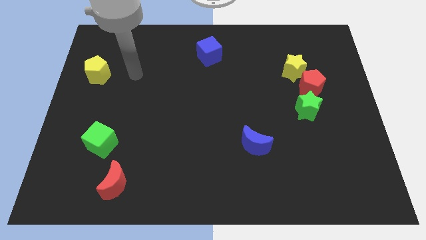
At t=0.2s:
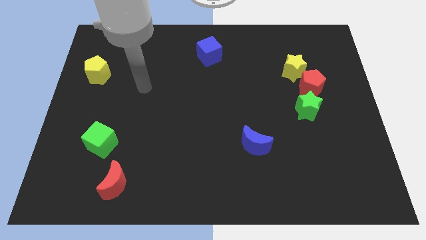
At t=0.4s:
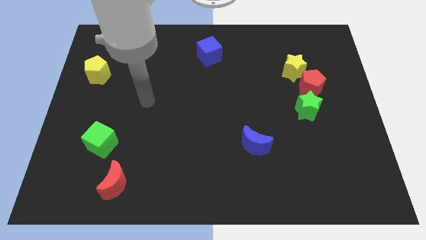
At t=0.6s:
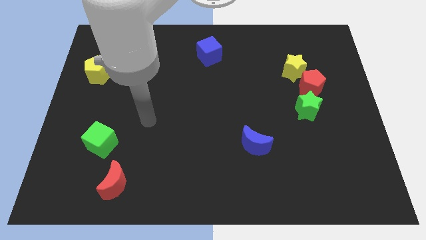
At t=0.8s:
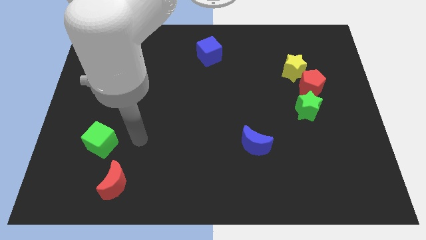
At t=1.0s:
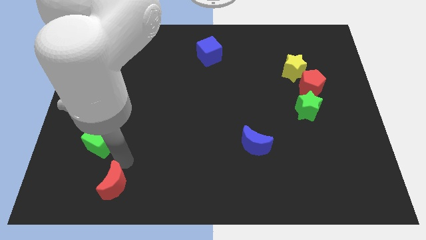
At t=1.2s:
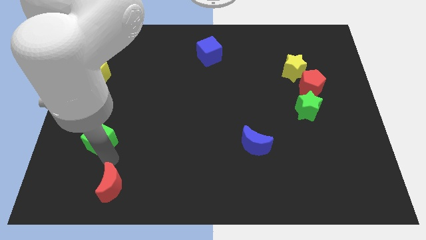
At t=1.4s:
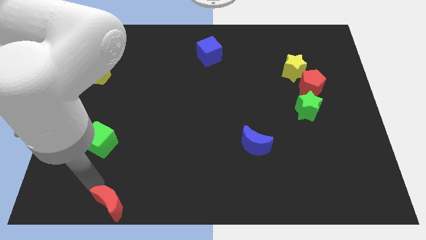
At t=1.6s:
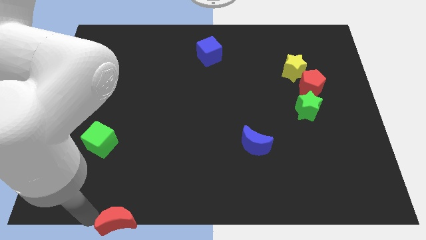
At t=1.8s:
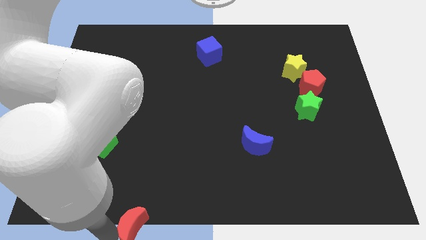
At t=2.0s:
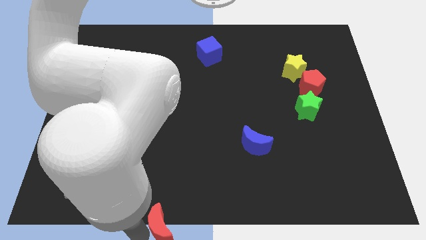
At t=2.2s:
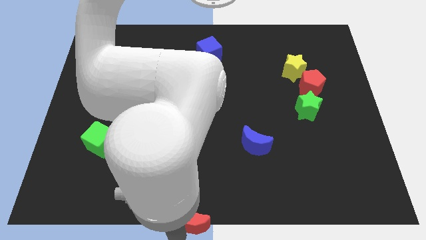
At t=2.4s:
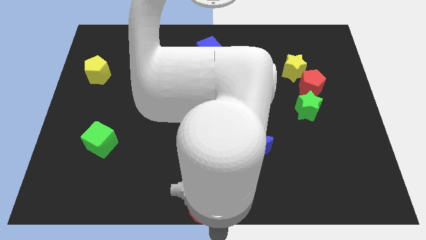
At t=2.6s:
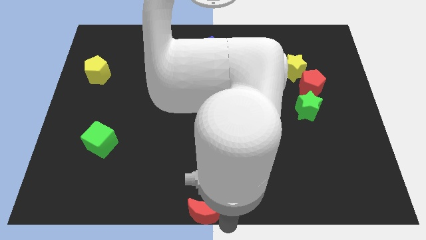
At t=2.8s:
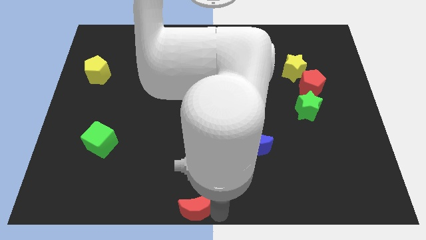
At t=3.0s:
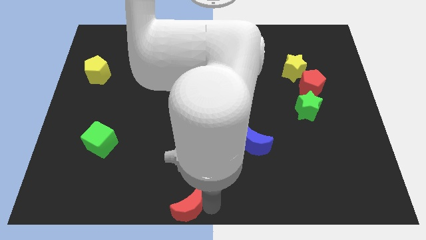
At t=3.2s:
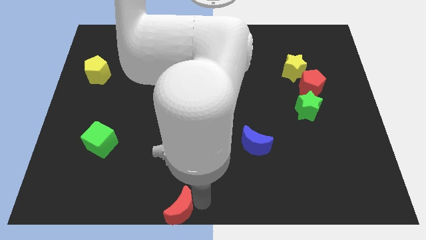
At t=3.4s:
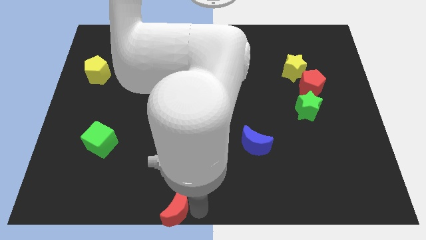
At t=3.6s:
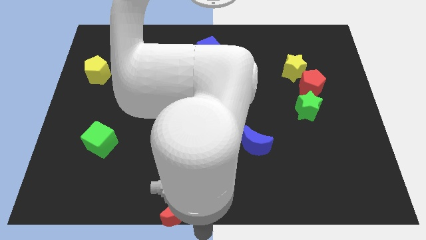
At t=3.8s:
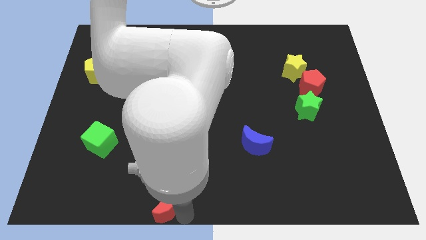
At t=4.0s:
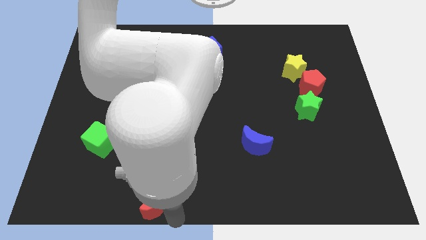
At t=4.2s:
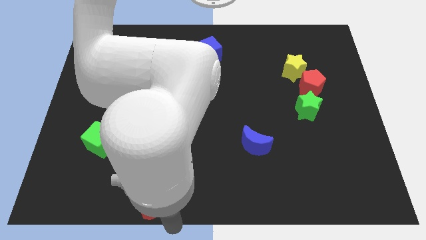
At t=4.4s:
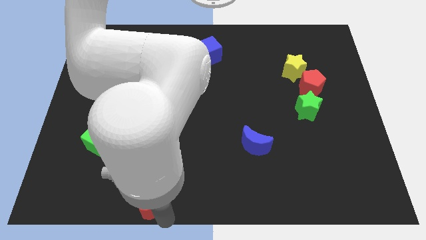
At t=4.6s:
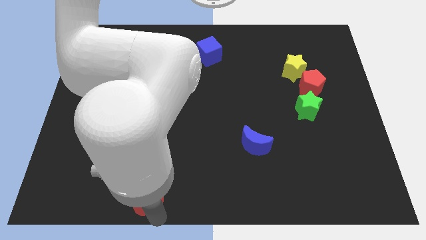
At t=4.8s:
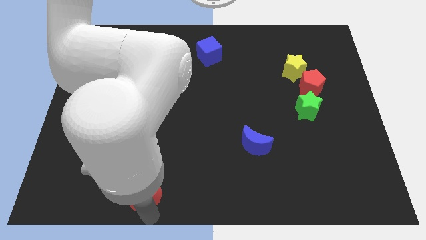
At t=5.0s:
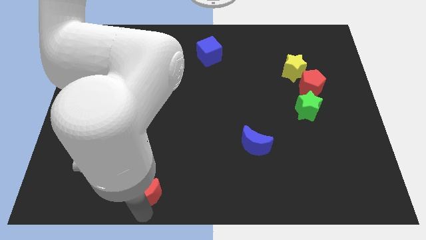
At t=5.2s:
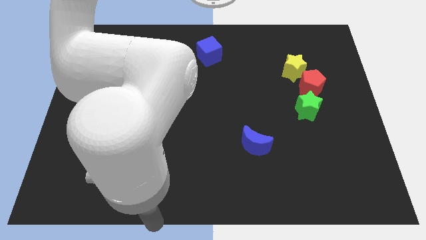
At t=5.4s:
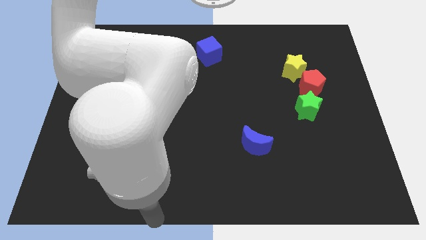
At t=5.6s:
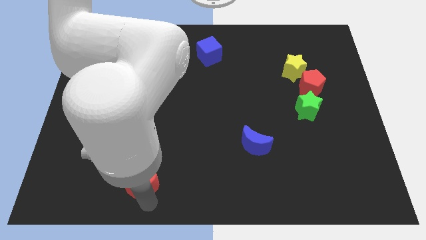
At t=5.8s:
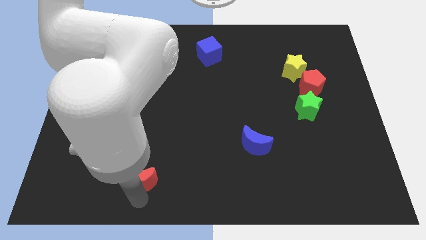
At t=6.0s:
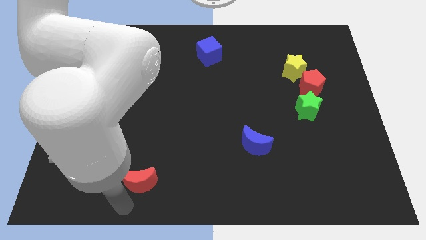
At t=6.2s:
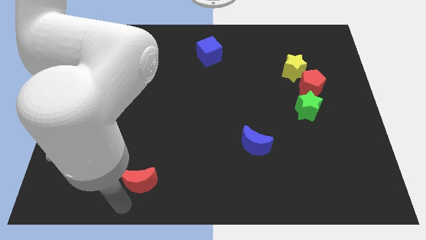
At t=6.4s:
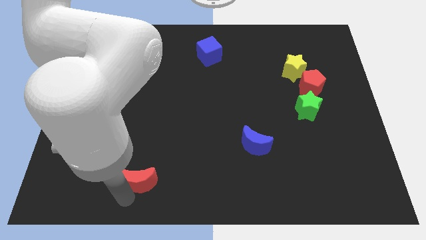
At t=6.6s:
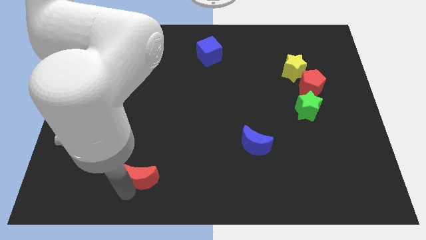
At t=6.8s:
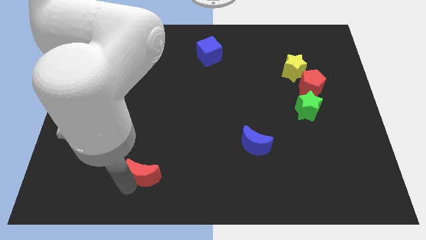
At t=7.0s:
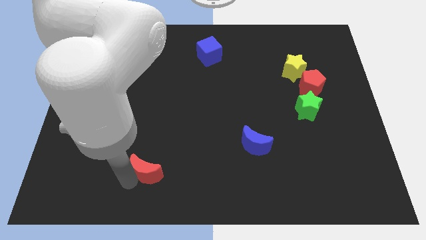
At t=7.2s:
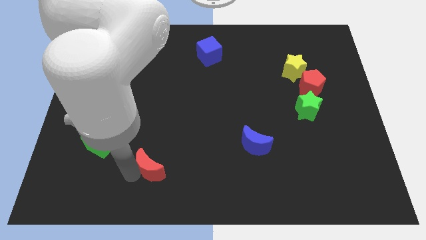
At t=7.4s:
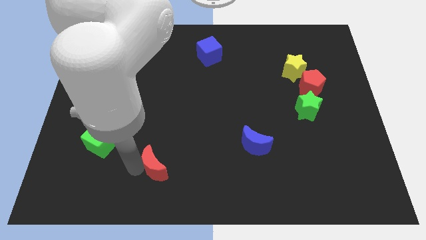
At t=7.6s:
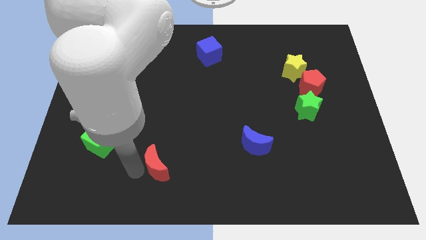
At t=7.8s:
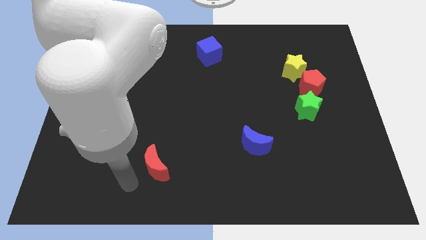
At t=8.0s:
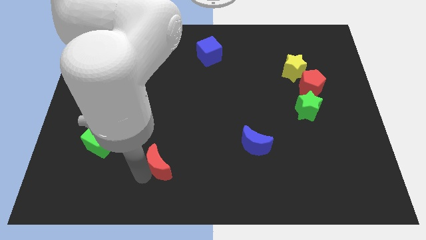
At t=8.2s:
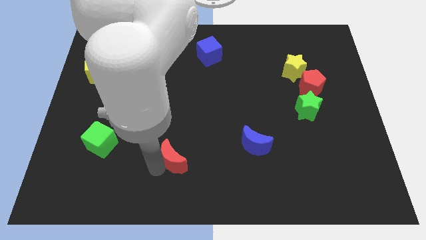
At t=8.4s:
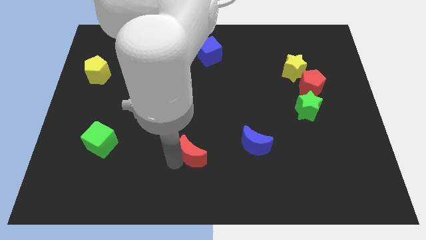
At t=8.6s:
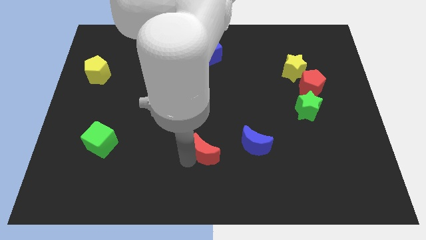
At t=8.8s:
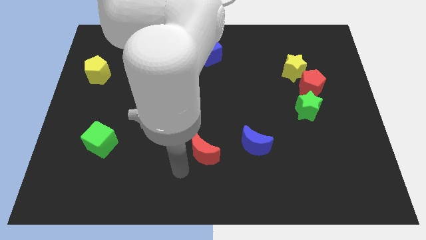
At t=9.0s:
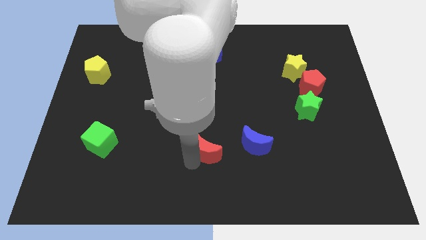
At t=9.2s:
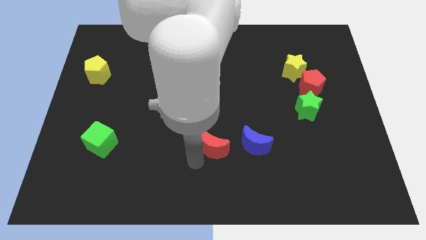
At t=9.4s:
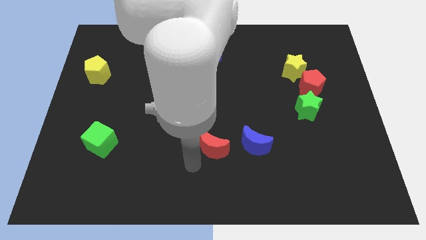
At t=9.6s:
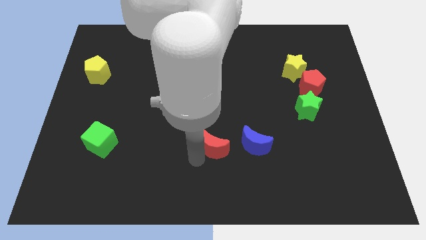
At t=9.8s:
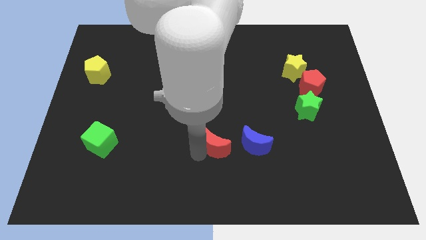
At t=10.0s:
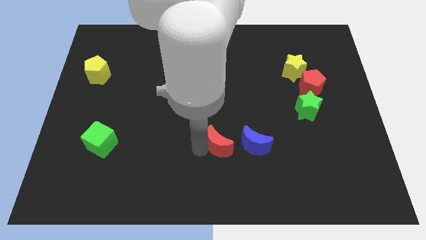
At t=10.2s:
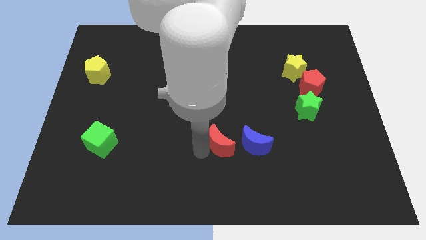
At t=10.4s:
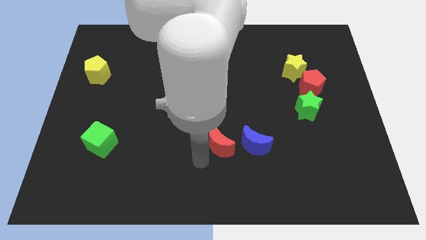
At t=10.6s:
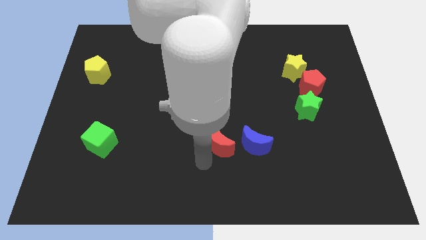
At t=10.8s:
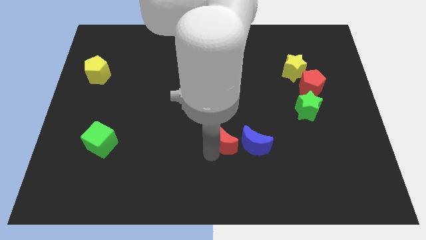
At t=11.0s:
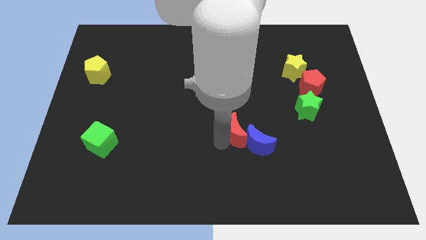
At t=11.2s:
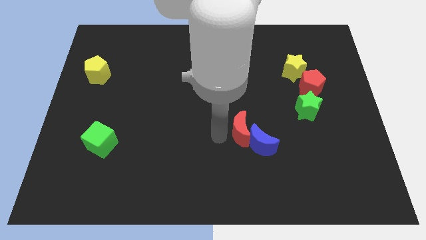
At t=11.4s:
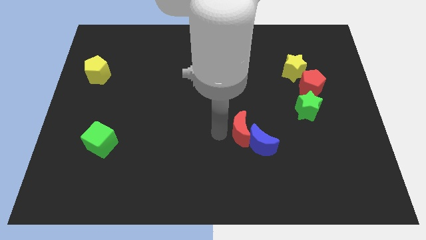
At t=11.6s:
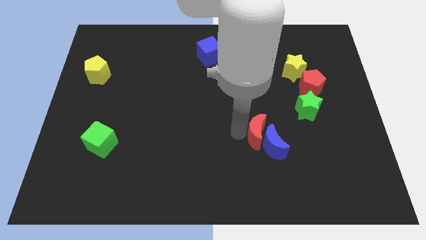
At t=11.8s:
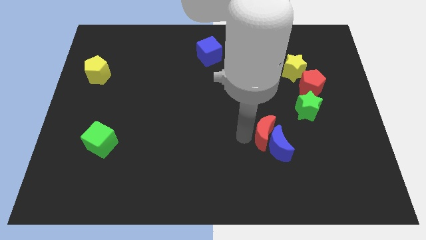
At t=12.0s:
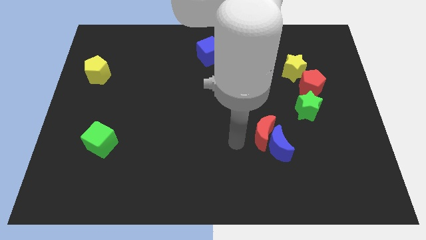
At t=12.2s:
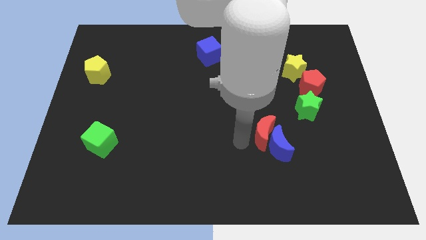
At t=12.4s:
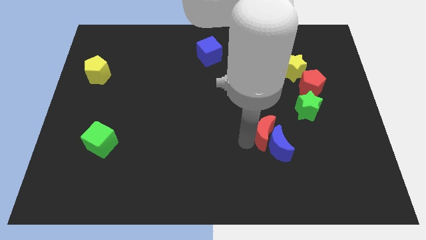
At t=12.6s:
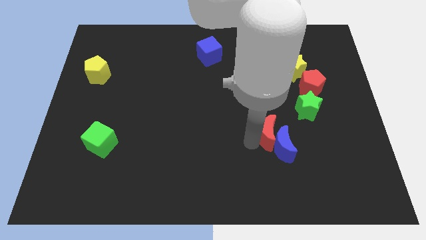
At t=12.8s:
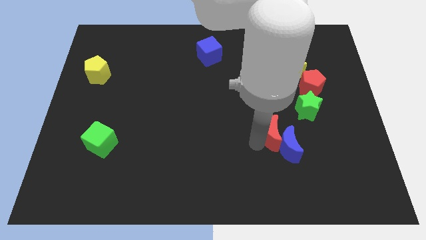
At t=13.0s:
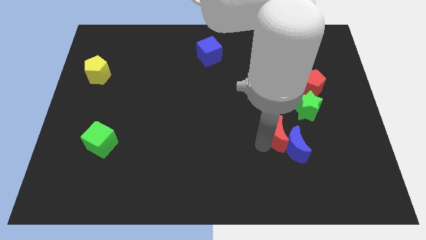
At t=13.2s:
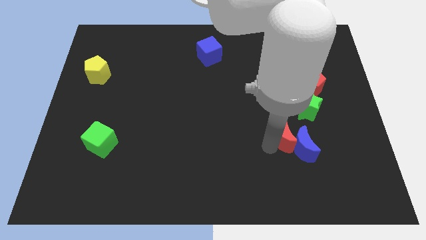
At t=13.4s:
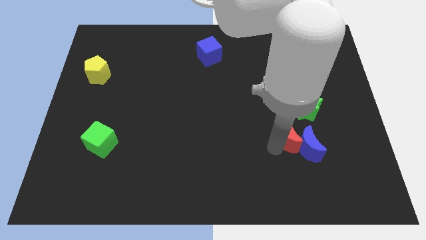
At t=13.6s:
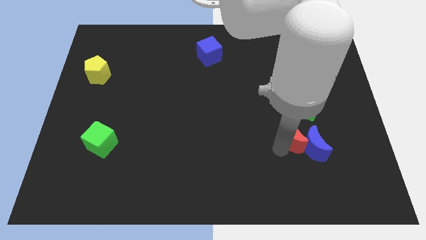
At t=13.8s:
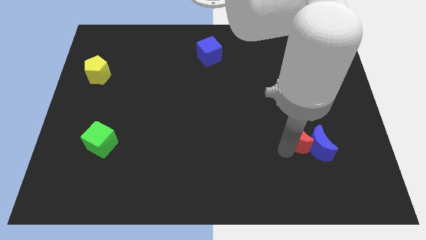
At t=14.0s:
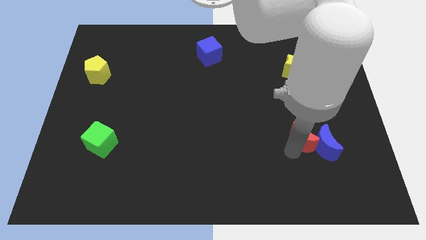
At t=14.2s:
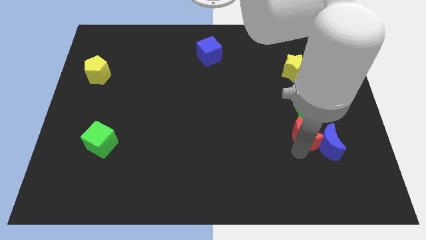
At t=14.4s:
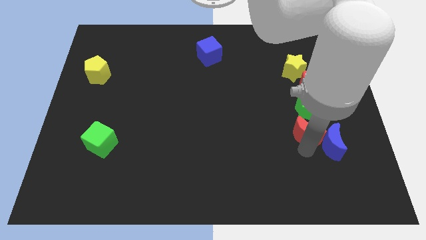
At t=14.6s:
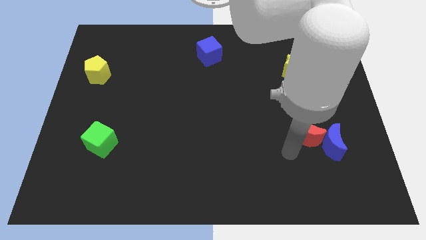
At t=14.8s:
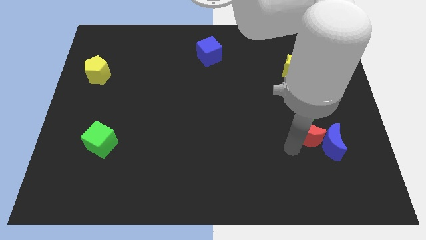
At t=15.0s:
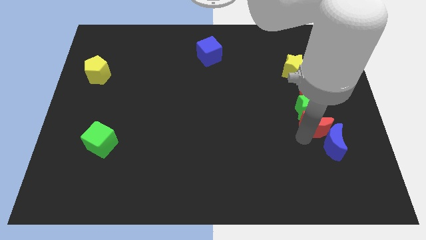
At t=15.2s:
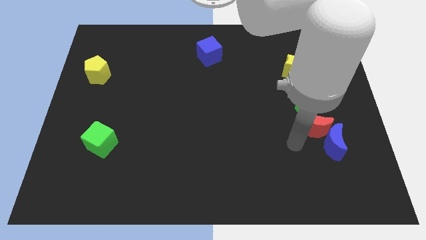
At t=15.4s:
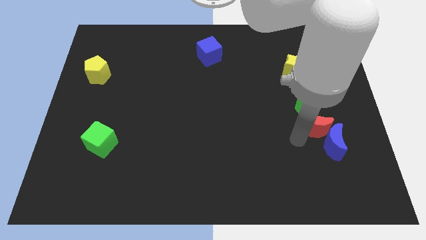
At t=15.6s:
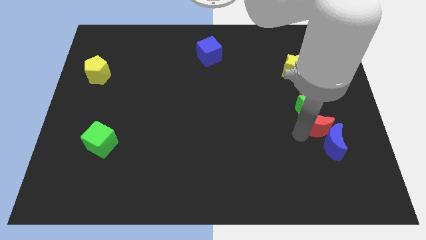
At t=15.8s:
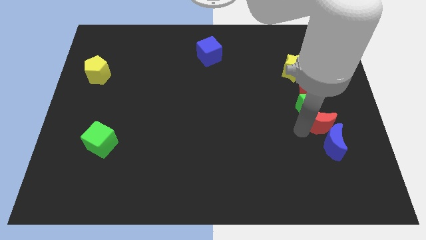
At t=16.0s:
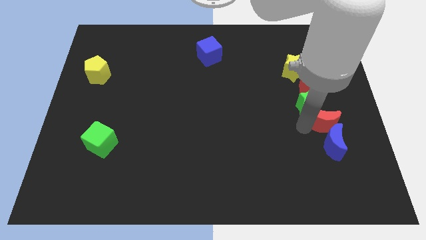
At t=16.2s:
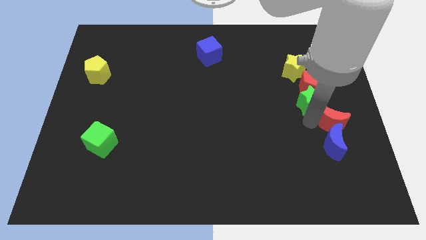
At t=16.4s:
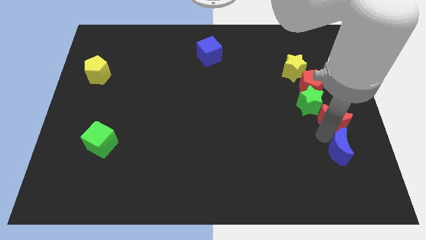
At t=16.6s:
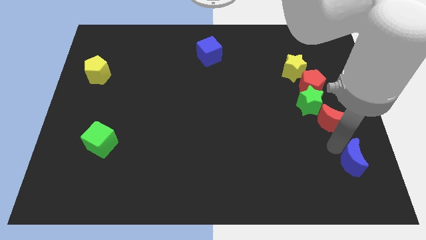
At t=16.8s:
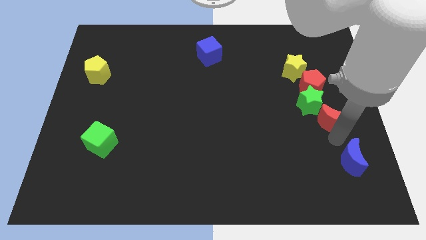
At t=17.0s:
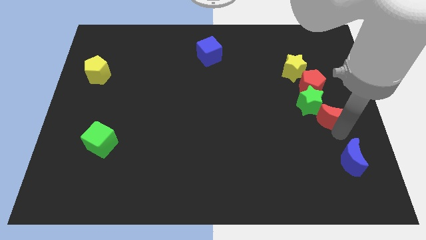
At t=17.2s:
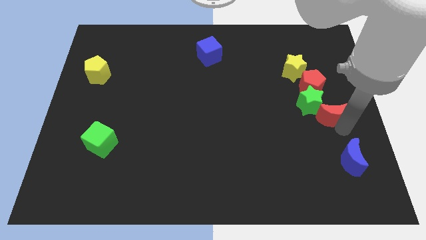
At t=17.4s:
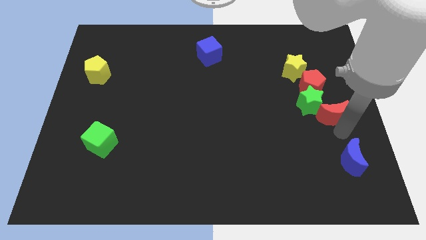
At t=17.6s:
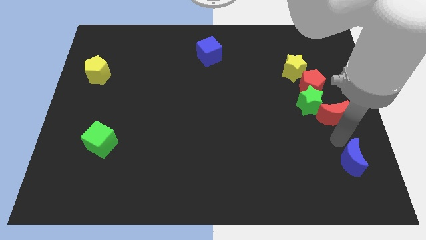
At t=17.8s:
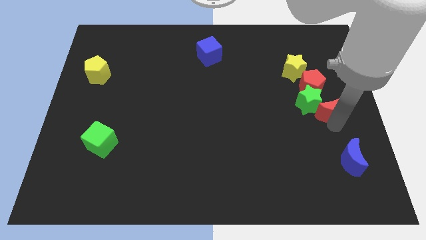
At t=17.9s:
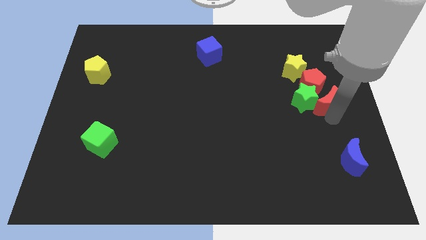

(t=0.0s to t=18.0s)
put the red moon to the top right side of the green star
